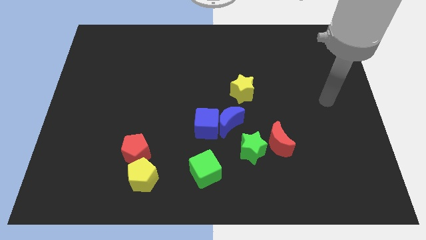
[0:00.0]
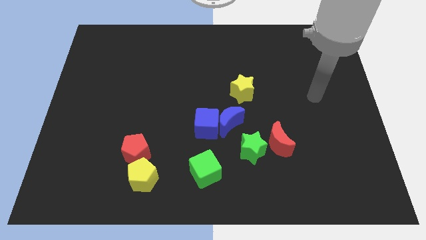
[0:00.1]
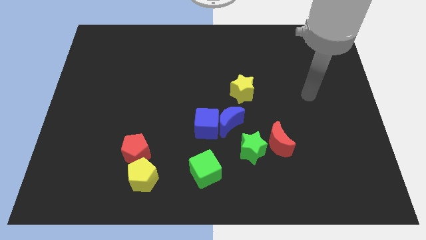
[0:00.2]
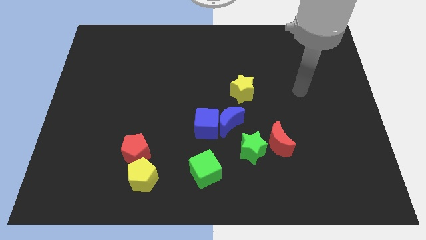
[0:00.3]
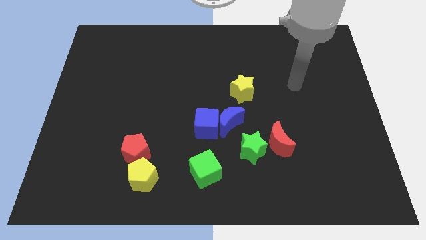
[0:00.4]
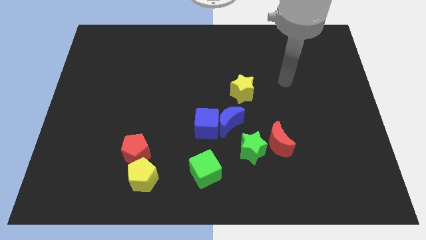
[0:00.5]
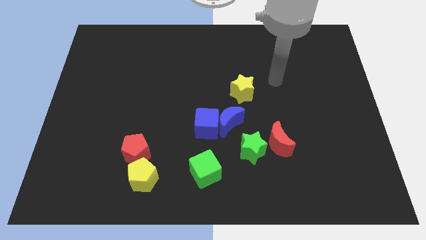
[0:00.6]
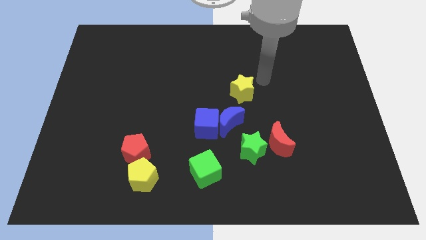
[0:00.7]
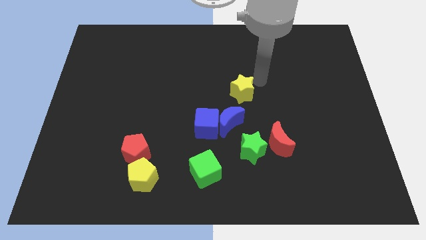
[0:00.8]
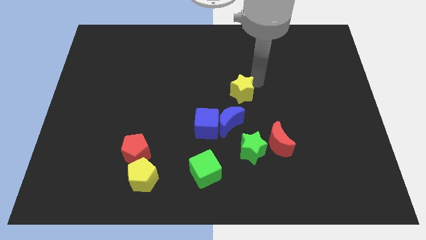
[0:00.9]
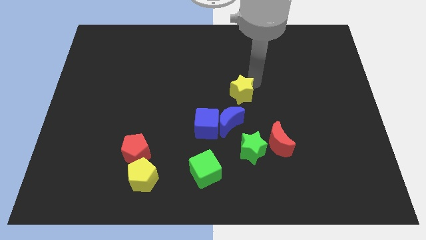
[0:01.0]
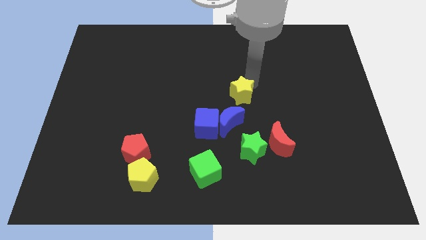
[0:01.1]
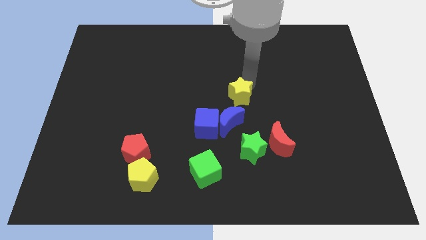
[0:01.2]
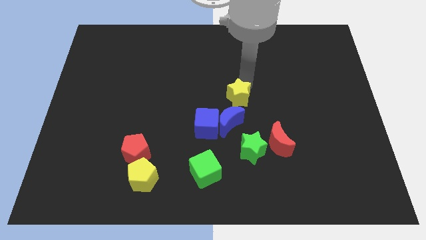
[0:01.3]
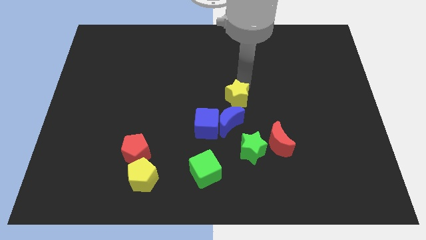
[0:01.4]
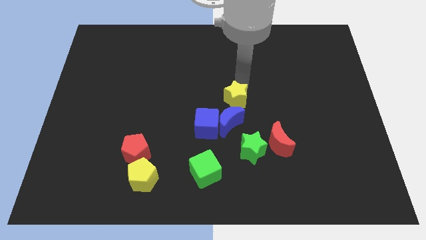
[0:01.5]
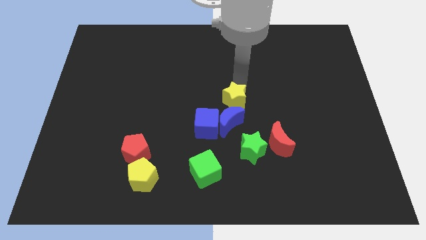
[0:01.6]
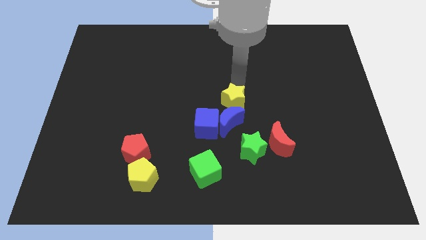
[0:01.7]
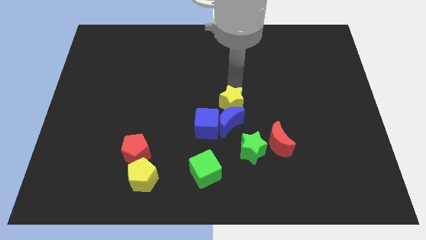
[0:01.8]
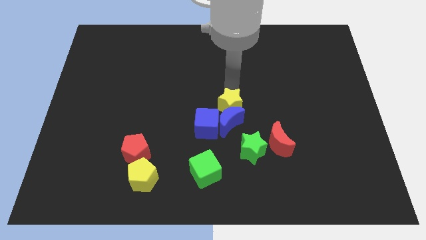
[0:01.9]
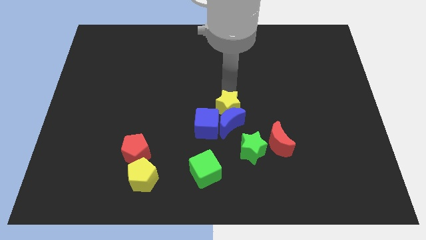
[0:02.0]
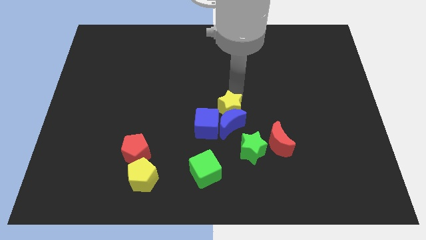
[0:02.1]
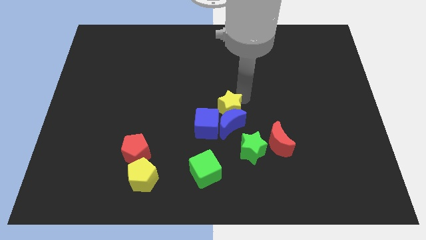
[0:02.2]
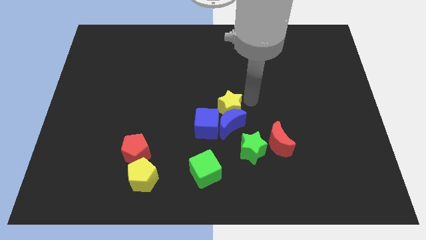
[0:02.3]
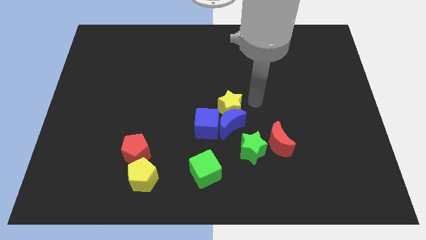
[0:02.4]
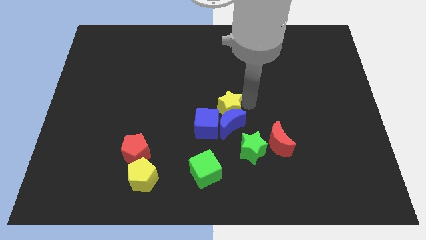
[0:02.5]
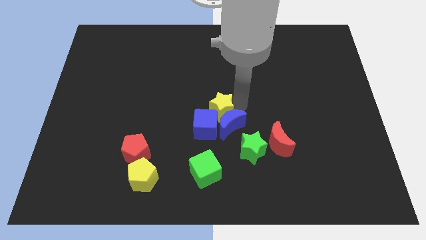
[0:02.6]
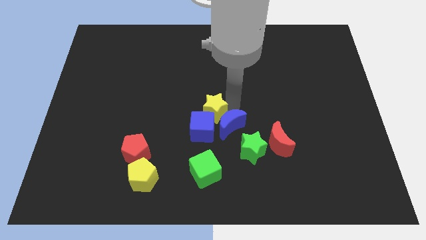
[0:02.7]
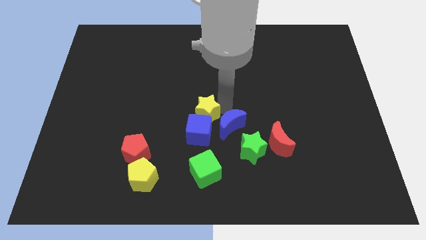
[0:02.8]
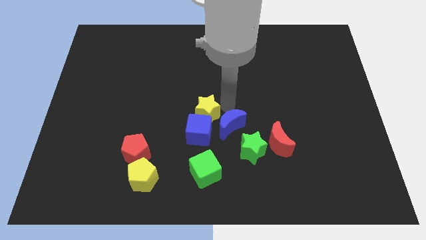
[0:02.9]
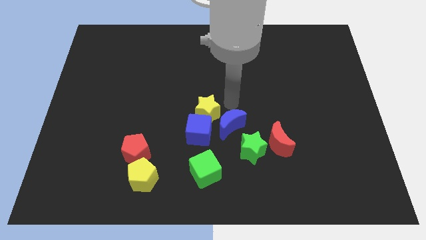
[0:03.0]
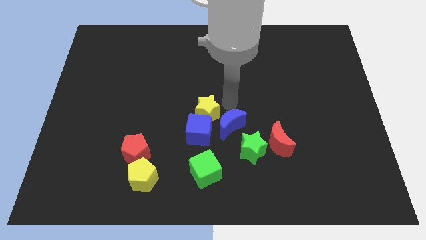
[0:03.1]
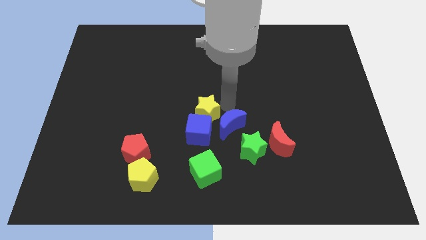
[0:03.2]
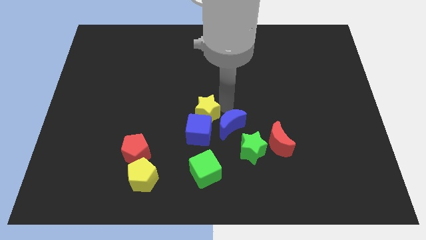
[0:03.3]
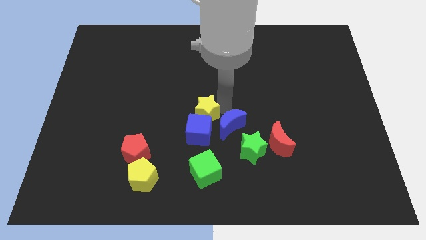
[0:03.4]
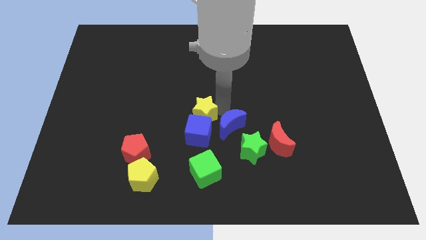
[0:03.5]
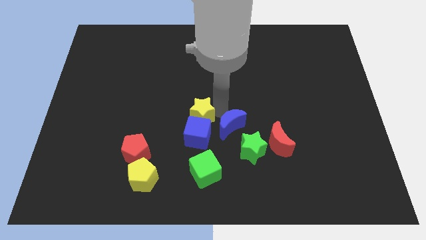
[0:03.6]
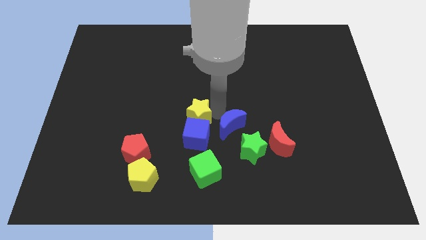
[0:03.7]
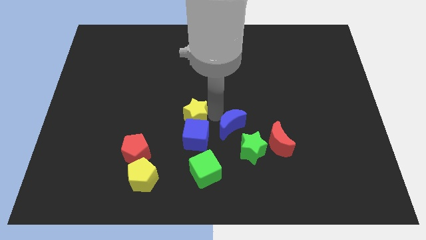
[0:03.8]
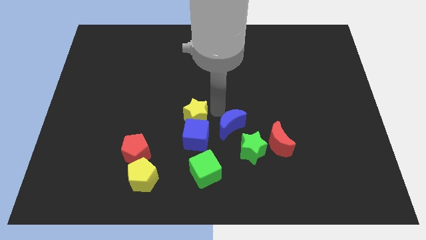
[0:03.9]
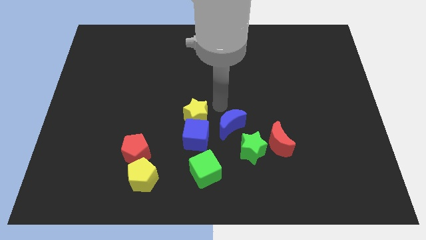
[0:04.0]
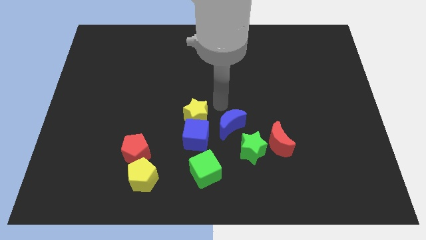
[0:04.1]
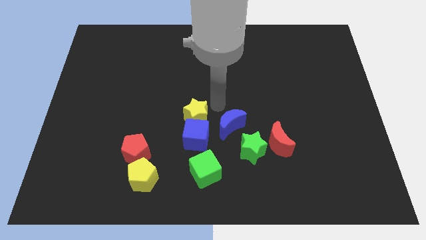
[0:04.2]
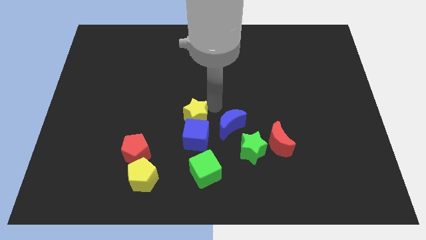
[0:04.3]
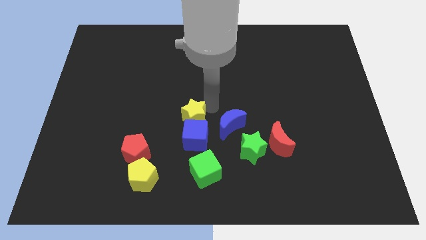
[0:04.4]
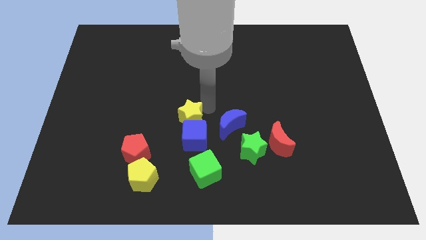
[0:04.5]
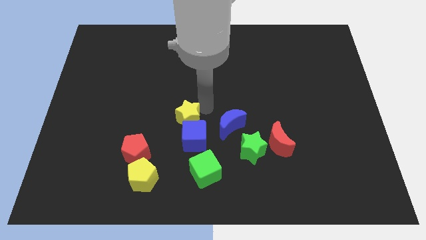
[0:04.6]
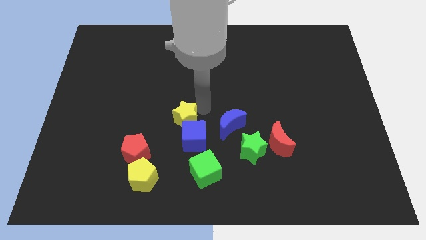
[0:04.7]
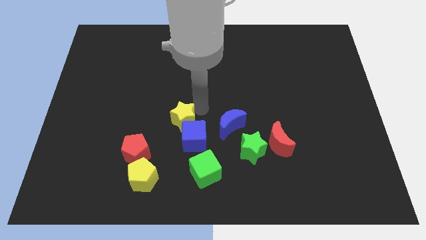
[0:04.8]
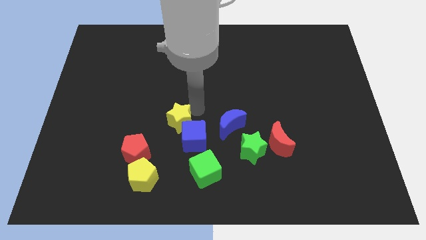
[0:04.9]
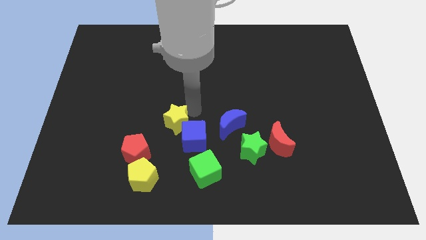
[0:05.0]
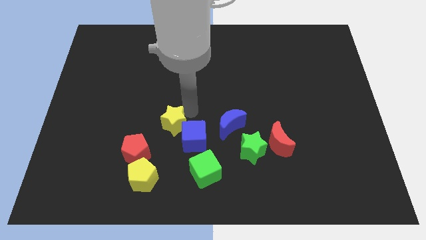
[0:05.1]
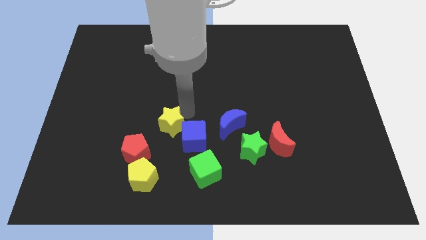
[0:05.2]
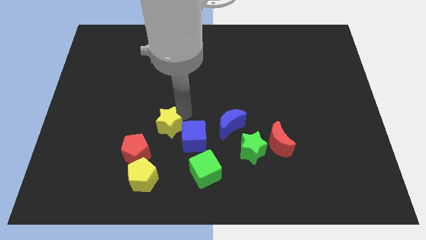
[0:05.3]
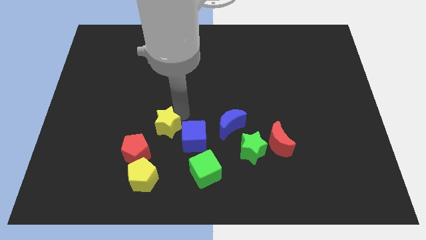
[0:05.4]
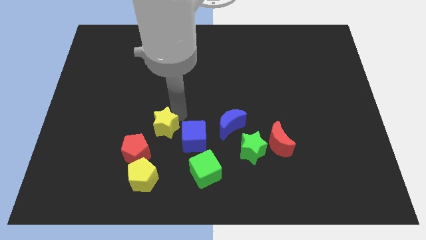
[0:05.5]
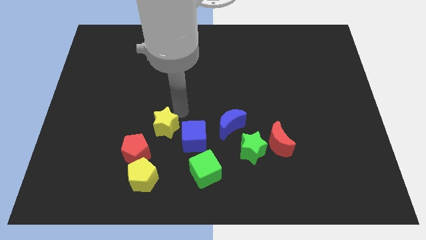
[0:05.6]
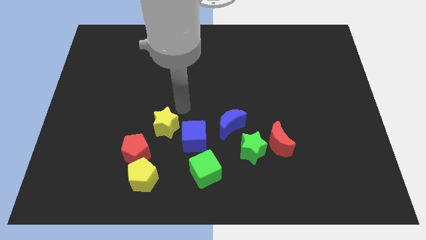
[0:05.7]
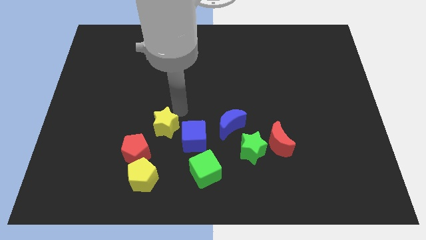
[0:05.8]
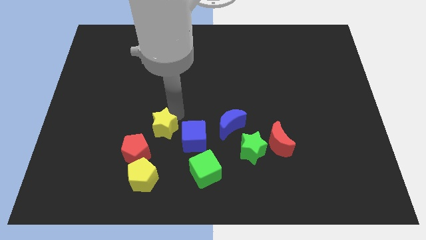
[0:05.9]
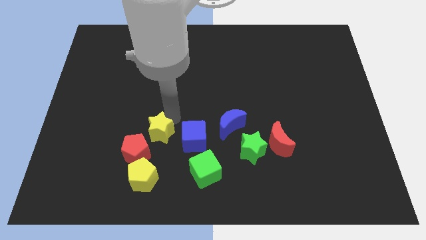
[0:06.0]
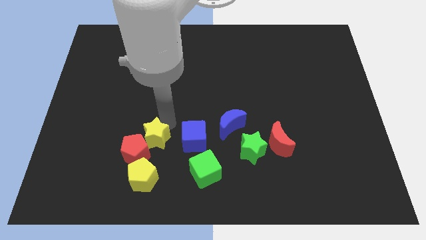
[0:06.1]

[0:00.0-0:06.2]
put the yellow star close to the red pentagon

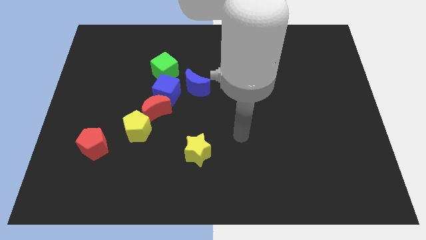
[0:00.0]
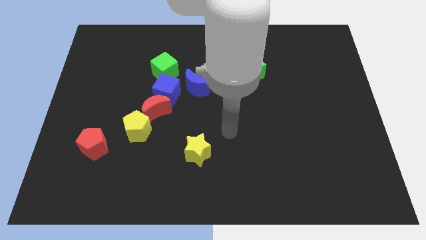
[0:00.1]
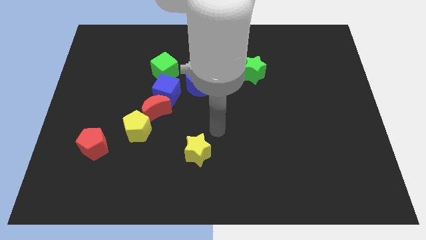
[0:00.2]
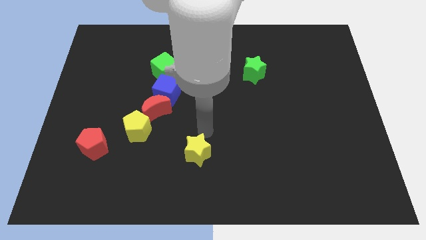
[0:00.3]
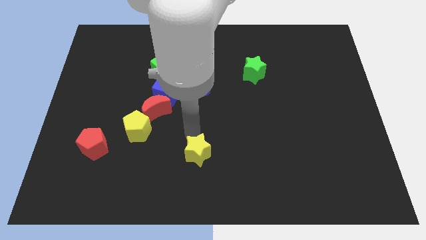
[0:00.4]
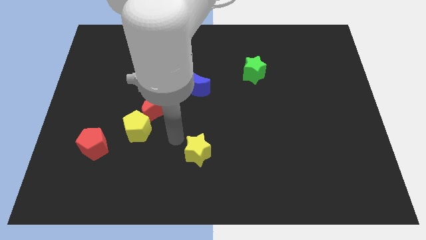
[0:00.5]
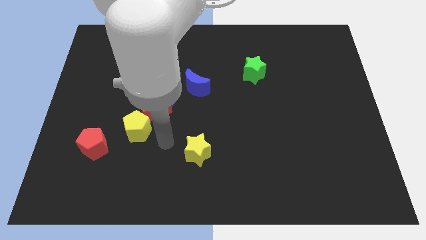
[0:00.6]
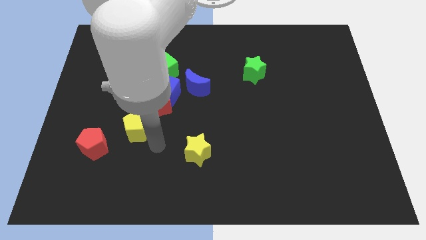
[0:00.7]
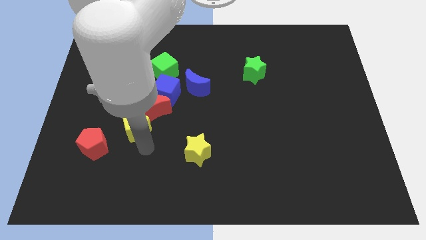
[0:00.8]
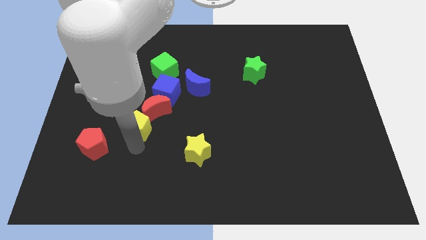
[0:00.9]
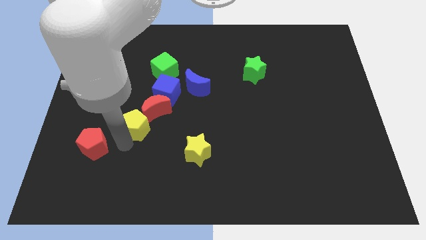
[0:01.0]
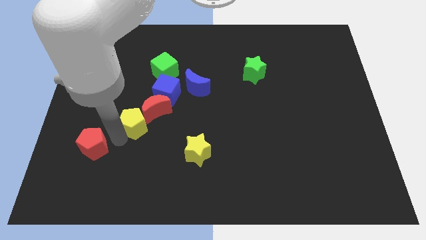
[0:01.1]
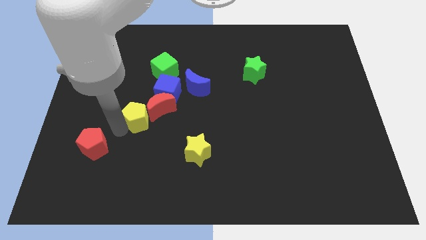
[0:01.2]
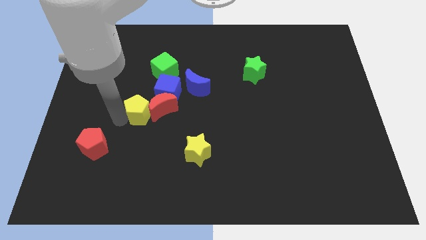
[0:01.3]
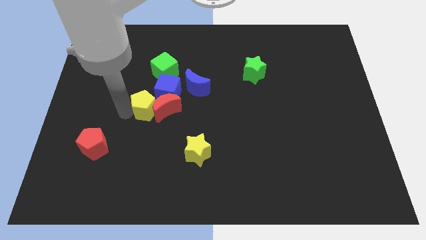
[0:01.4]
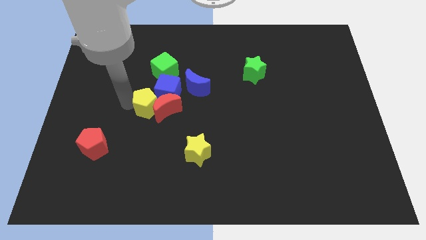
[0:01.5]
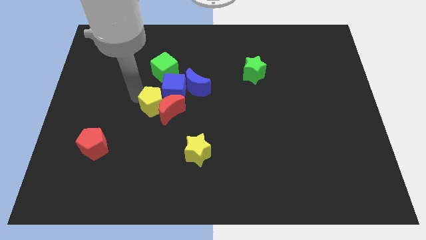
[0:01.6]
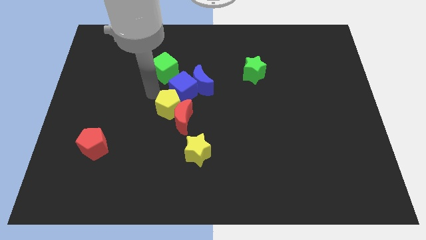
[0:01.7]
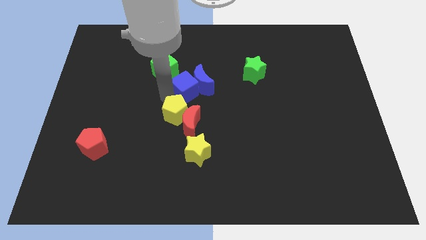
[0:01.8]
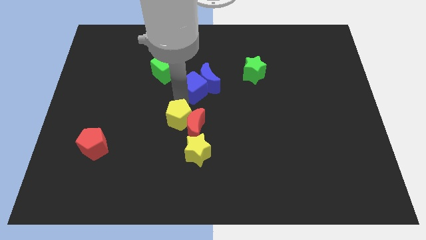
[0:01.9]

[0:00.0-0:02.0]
put the red moon close to the yellow star
